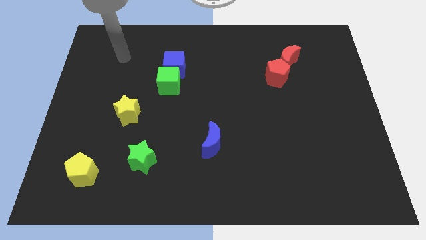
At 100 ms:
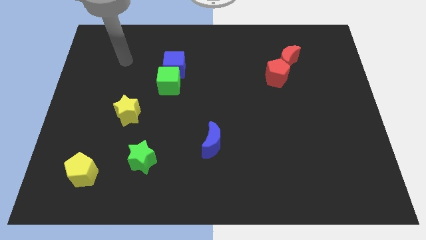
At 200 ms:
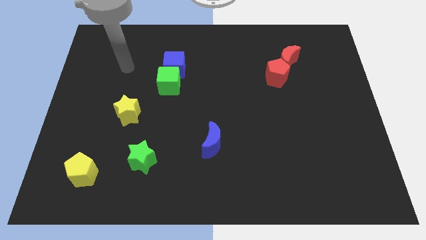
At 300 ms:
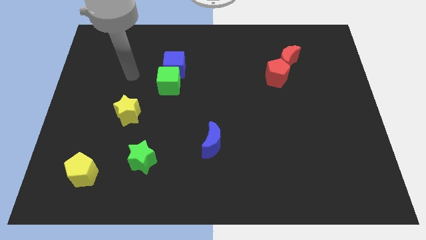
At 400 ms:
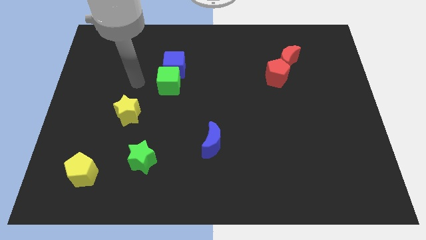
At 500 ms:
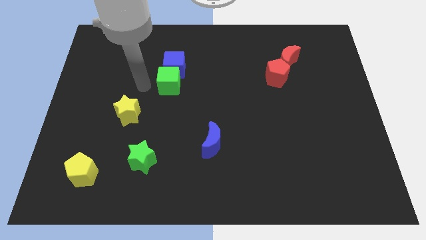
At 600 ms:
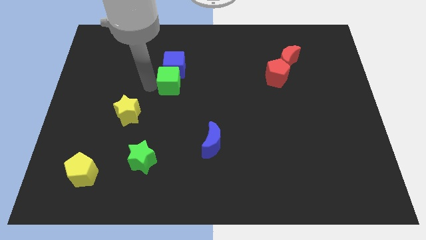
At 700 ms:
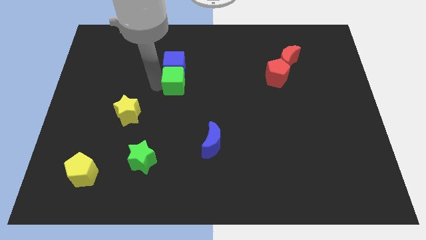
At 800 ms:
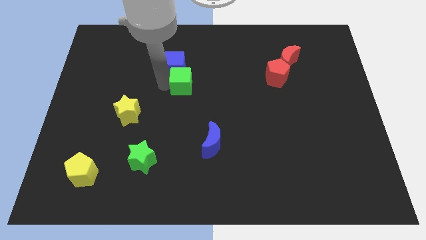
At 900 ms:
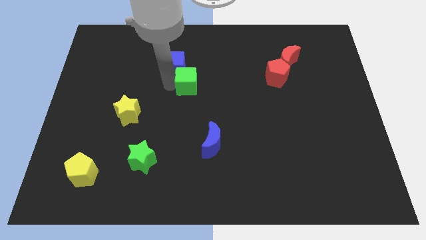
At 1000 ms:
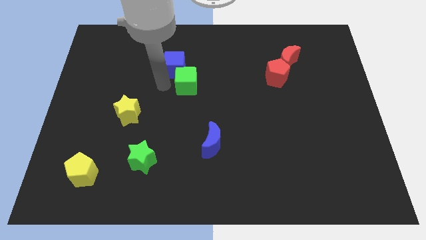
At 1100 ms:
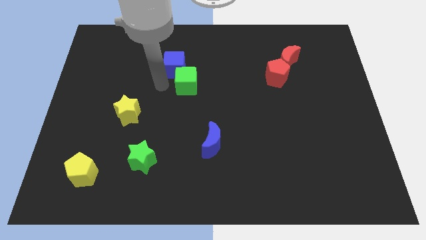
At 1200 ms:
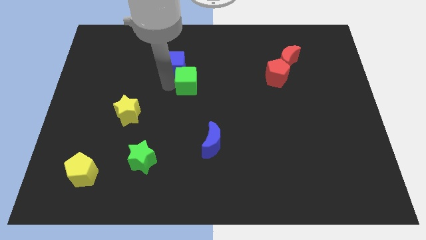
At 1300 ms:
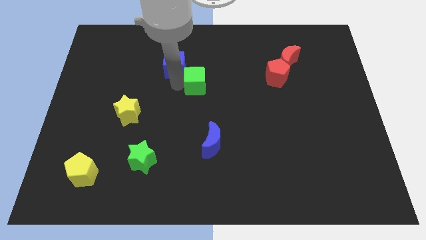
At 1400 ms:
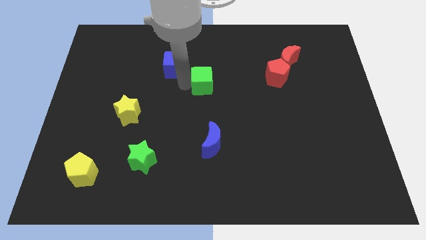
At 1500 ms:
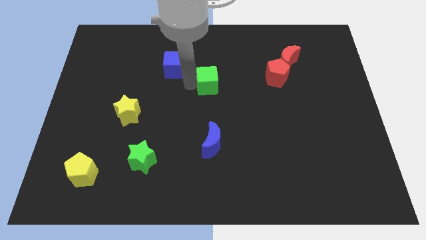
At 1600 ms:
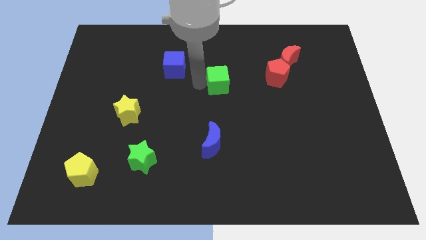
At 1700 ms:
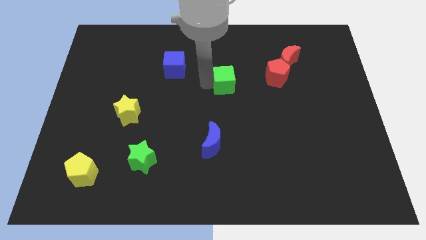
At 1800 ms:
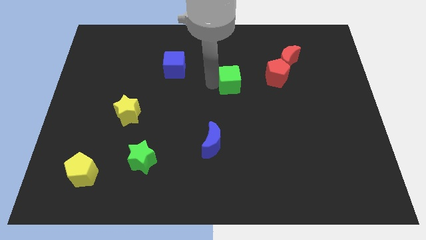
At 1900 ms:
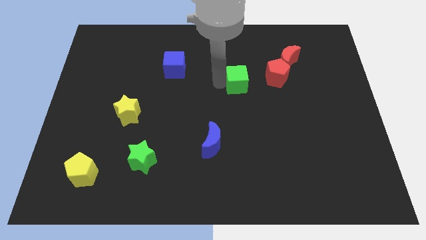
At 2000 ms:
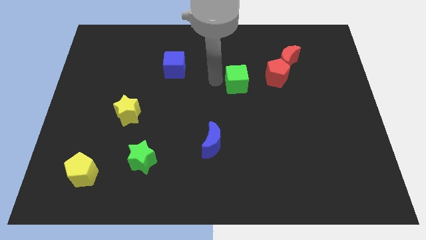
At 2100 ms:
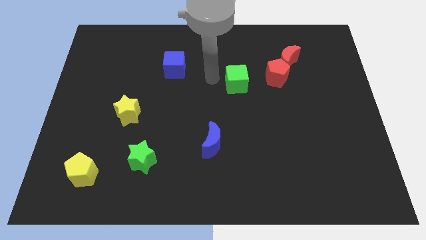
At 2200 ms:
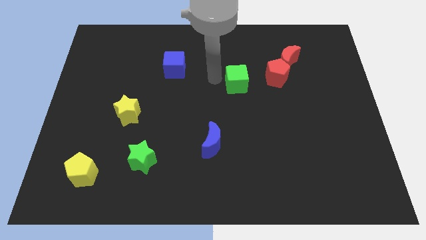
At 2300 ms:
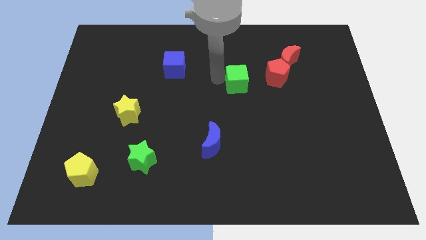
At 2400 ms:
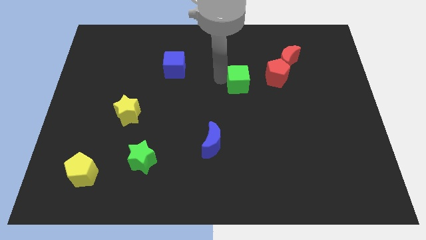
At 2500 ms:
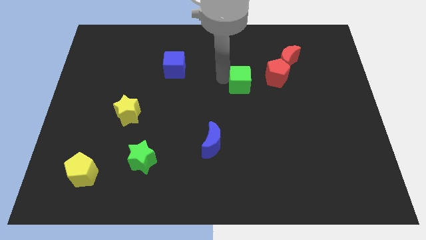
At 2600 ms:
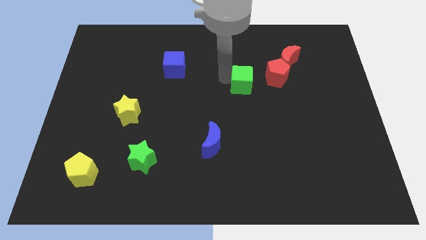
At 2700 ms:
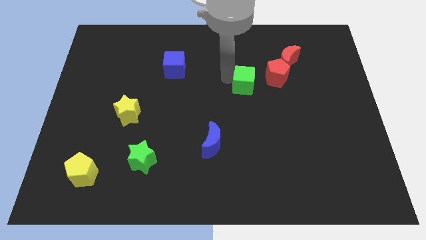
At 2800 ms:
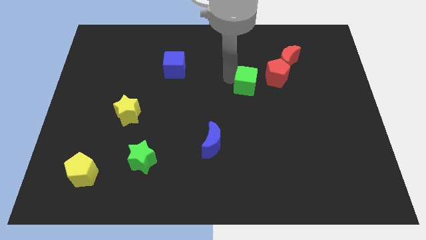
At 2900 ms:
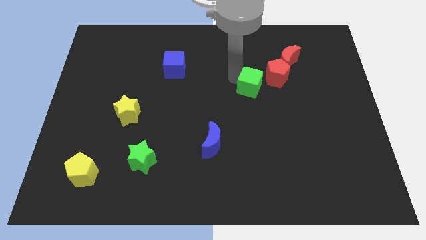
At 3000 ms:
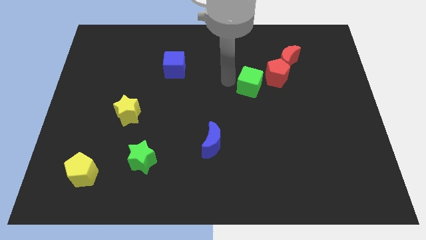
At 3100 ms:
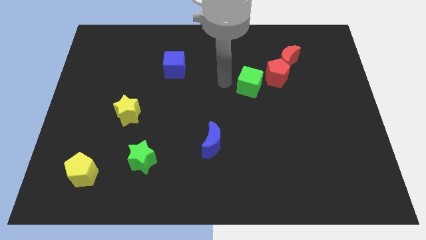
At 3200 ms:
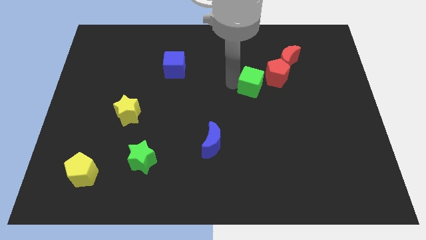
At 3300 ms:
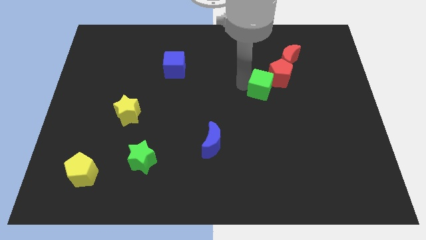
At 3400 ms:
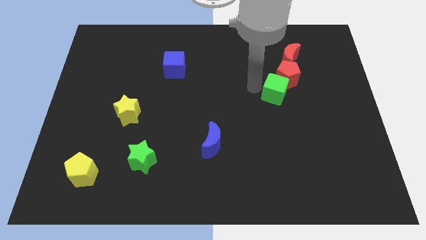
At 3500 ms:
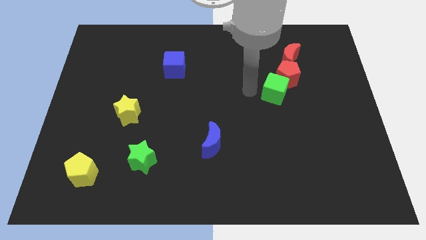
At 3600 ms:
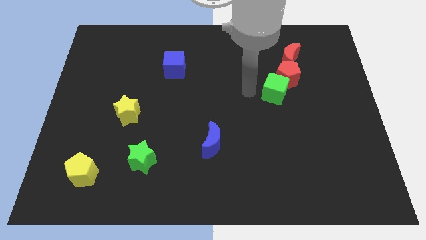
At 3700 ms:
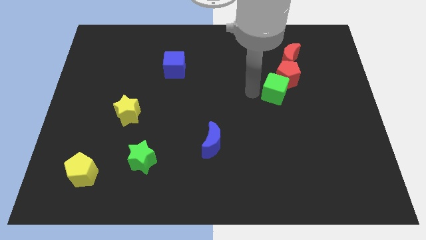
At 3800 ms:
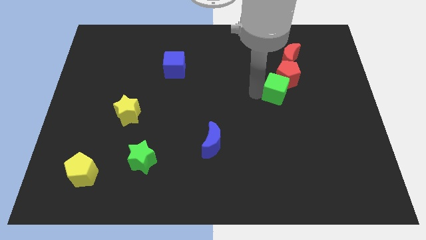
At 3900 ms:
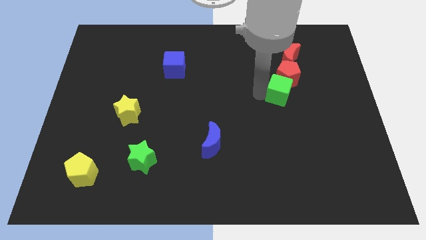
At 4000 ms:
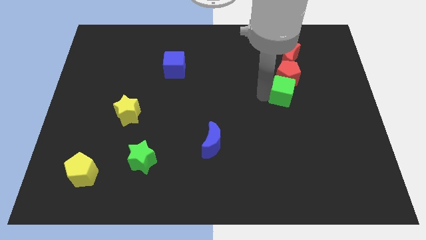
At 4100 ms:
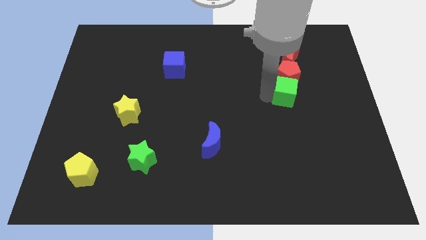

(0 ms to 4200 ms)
push the green cube to the bottom right of the red pentagon

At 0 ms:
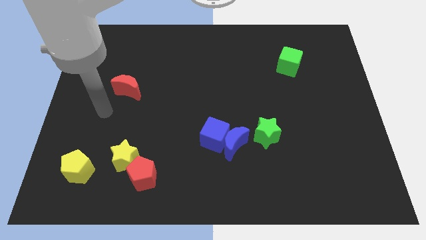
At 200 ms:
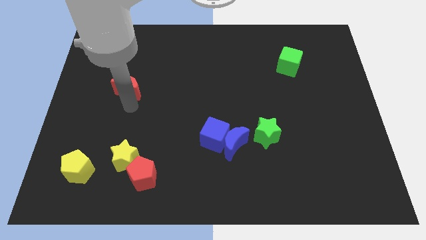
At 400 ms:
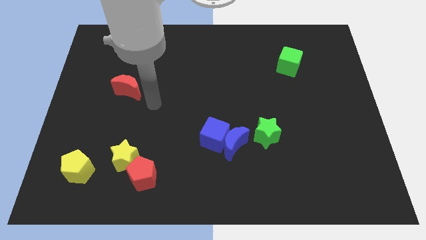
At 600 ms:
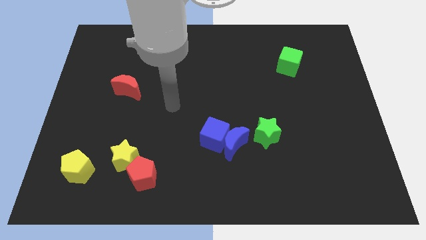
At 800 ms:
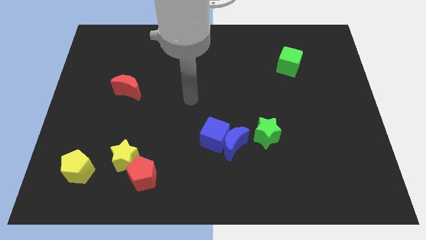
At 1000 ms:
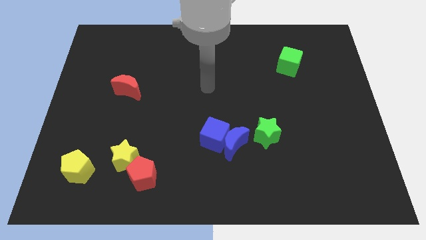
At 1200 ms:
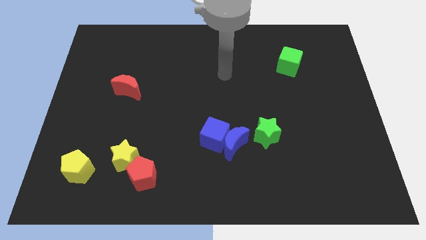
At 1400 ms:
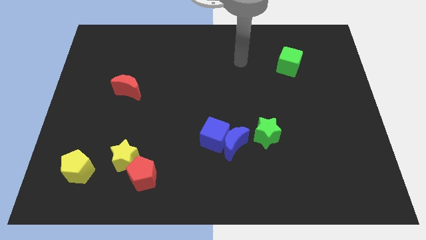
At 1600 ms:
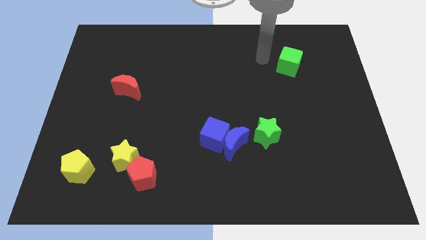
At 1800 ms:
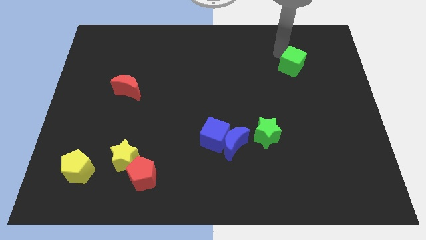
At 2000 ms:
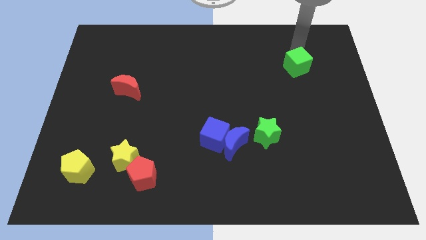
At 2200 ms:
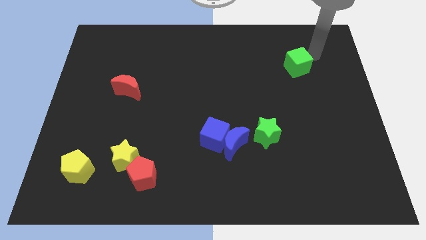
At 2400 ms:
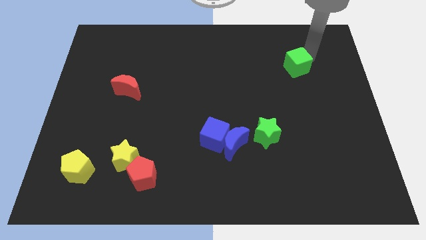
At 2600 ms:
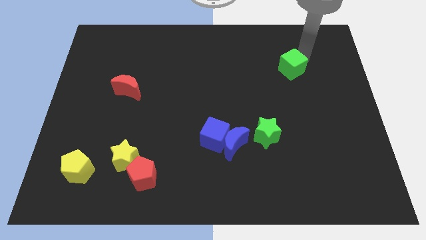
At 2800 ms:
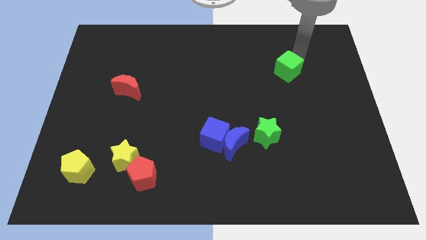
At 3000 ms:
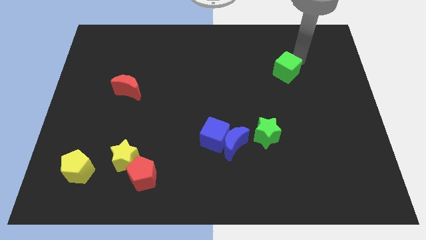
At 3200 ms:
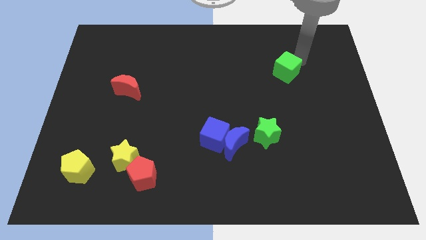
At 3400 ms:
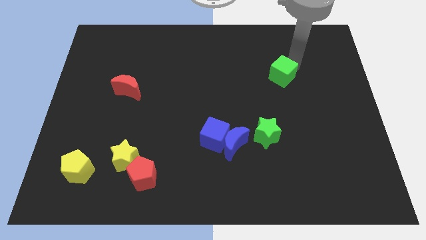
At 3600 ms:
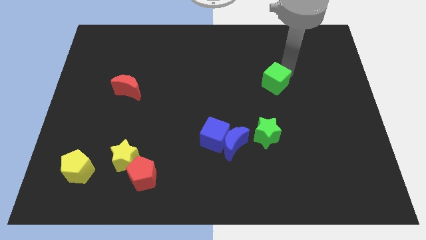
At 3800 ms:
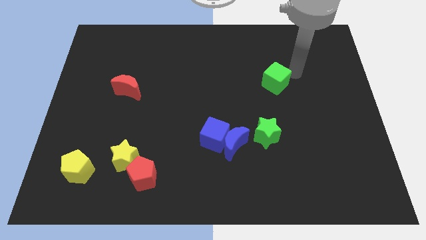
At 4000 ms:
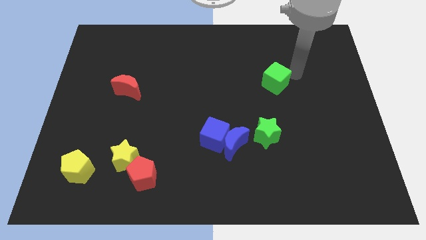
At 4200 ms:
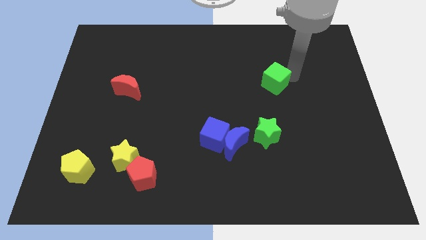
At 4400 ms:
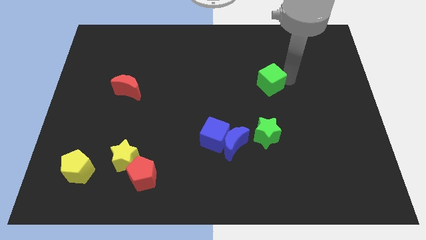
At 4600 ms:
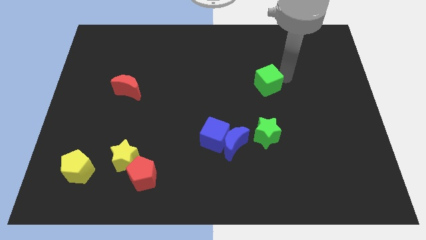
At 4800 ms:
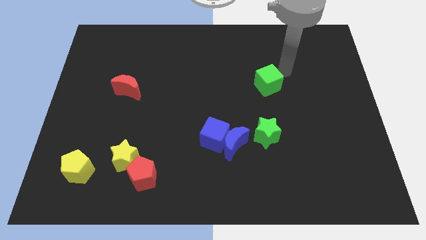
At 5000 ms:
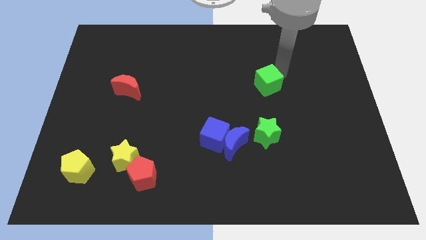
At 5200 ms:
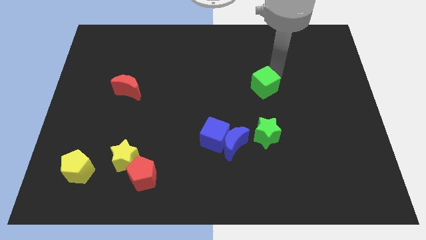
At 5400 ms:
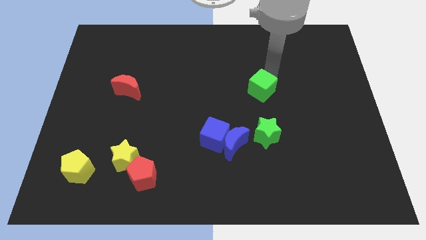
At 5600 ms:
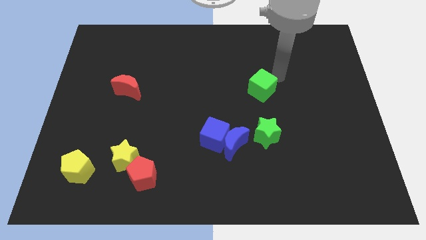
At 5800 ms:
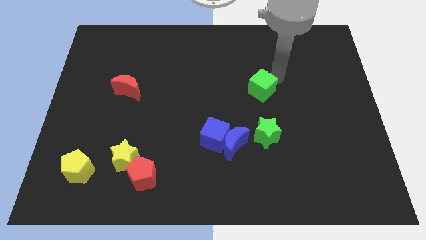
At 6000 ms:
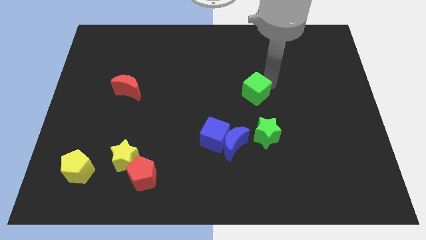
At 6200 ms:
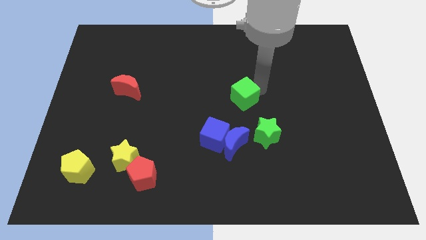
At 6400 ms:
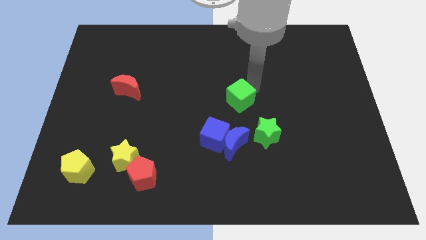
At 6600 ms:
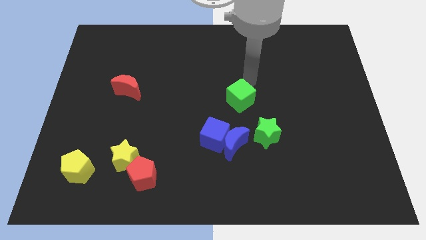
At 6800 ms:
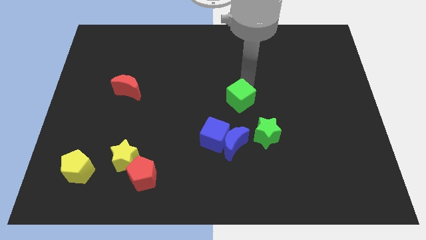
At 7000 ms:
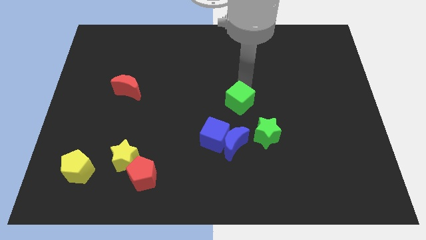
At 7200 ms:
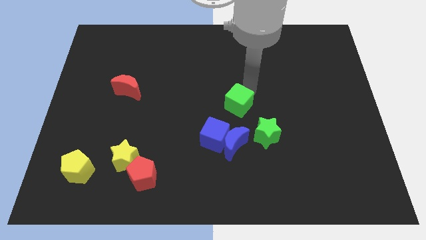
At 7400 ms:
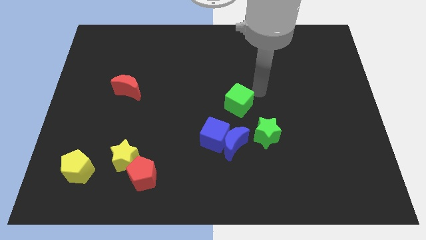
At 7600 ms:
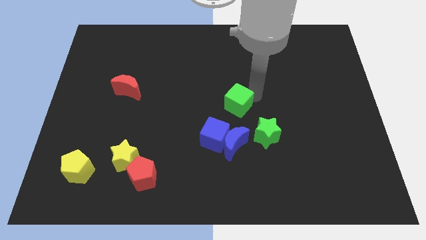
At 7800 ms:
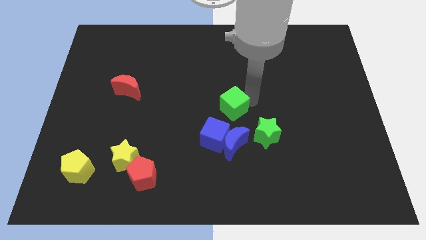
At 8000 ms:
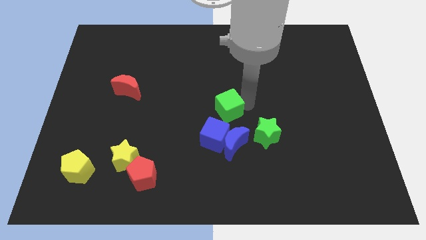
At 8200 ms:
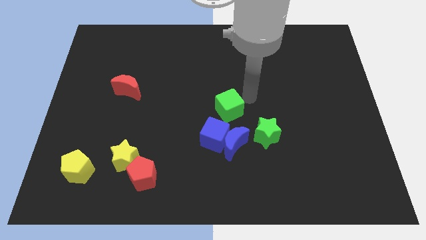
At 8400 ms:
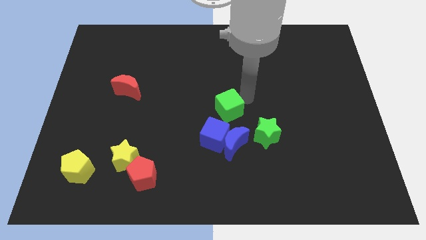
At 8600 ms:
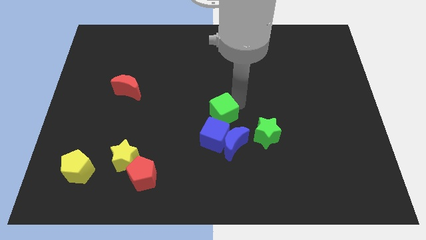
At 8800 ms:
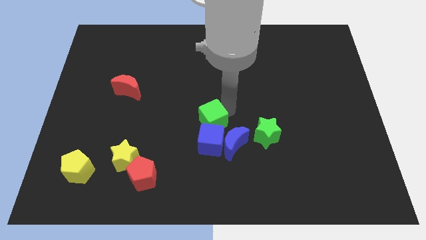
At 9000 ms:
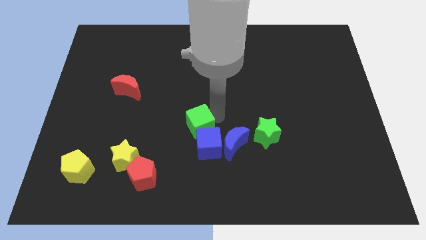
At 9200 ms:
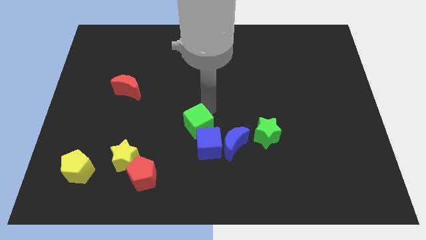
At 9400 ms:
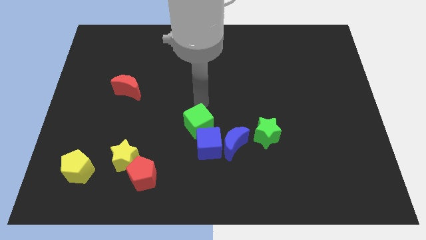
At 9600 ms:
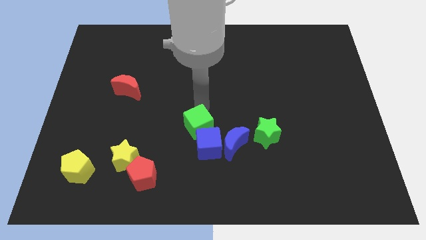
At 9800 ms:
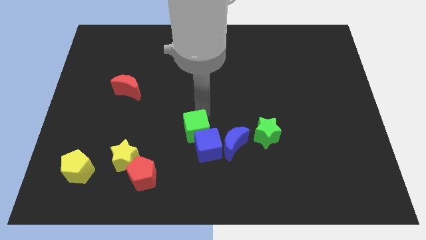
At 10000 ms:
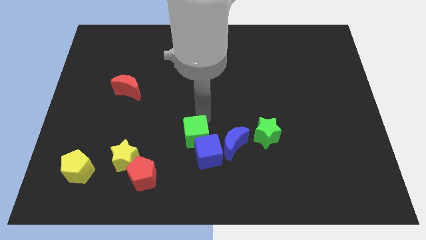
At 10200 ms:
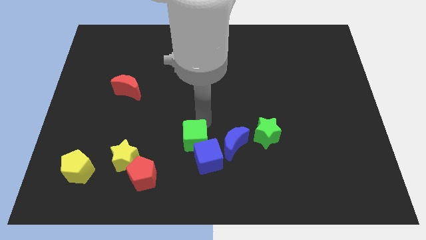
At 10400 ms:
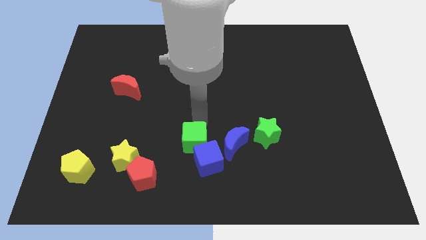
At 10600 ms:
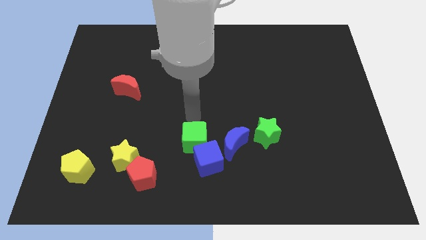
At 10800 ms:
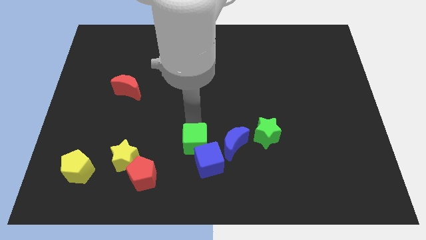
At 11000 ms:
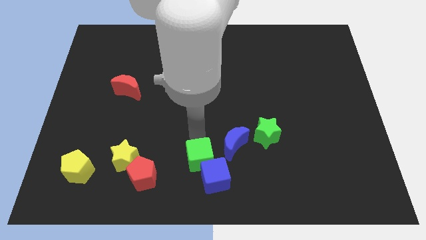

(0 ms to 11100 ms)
slide the green cube right of the red pentagon
